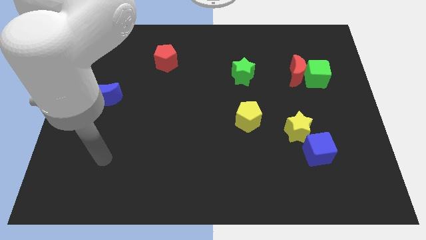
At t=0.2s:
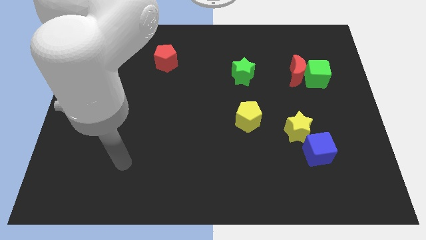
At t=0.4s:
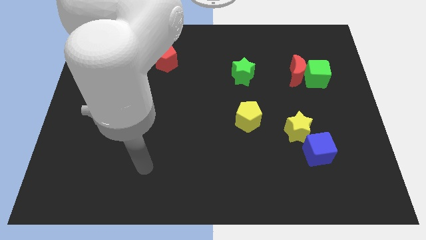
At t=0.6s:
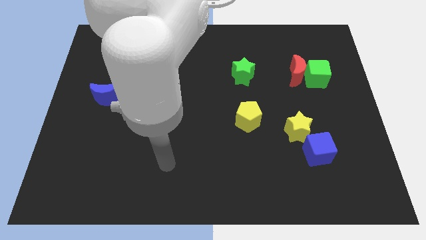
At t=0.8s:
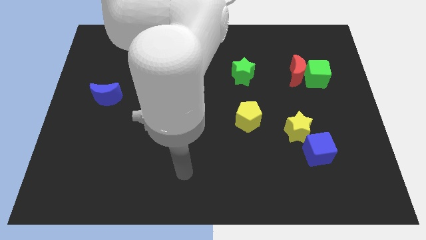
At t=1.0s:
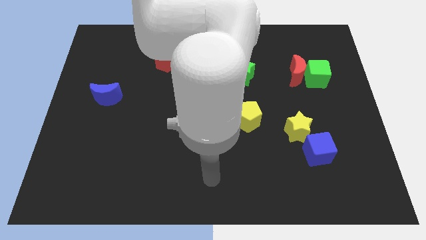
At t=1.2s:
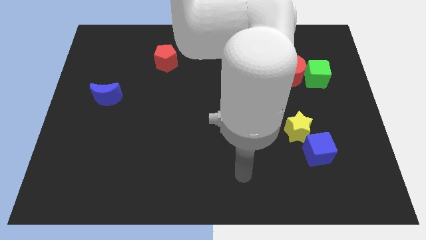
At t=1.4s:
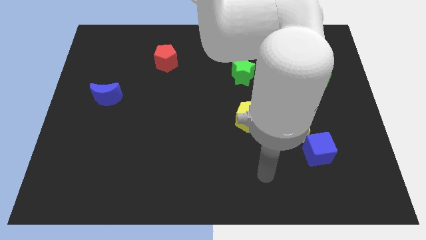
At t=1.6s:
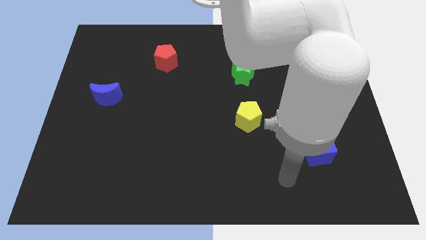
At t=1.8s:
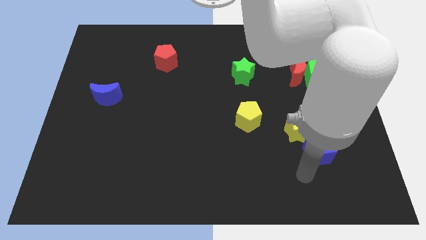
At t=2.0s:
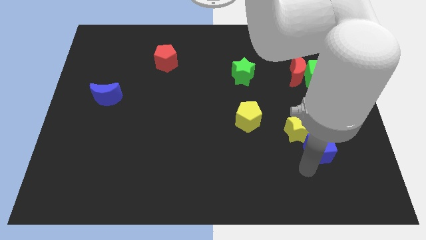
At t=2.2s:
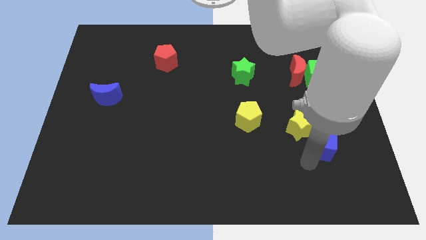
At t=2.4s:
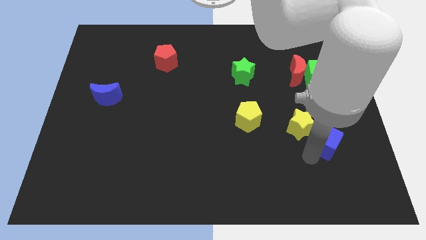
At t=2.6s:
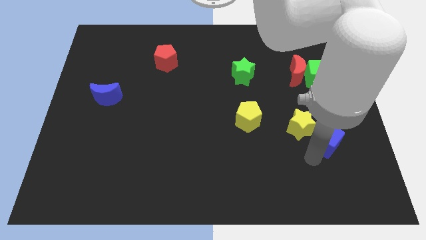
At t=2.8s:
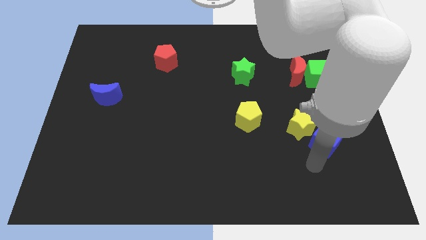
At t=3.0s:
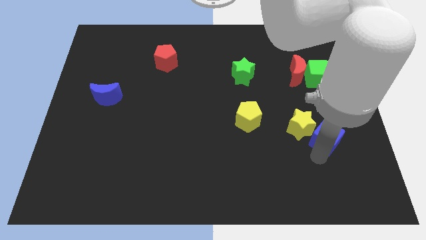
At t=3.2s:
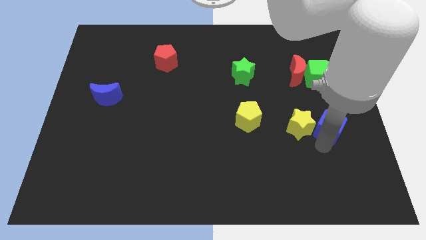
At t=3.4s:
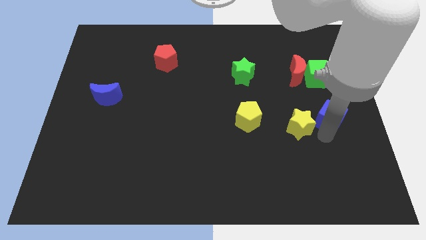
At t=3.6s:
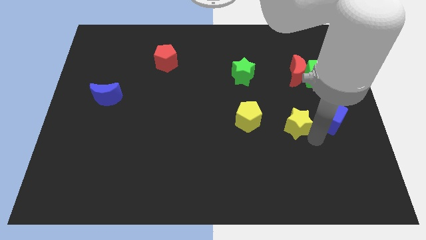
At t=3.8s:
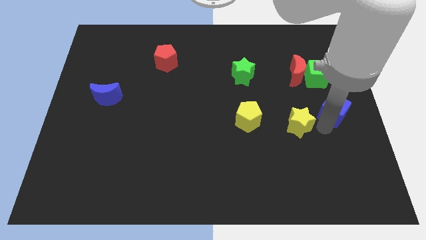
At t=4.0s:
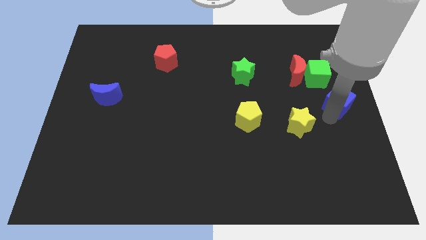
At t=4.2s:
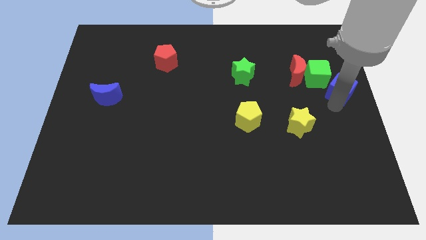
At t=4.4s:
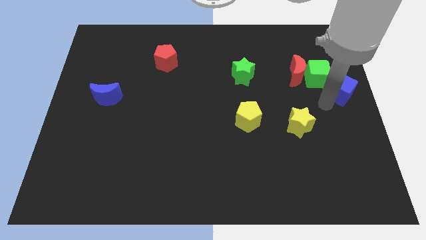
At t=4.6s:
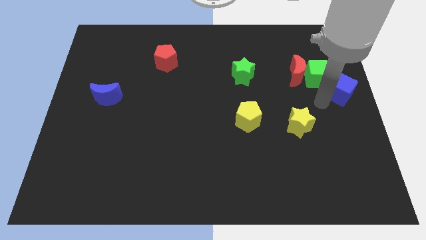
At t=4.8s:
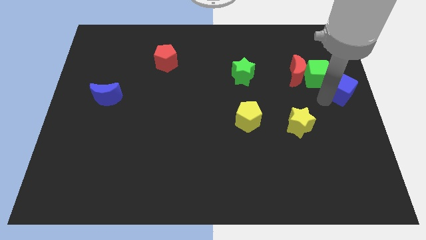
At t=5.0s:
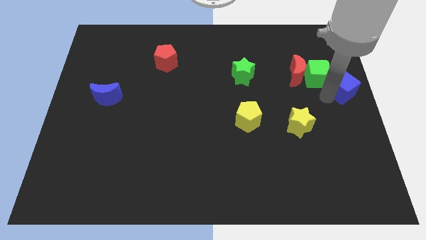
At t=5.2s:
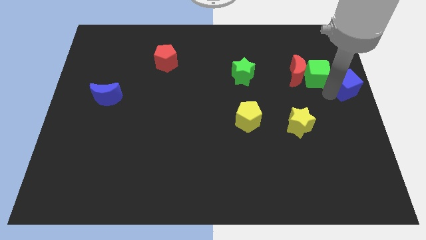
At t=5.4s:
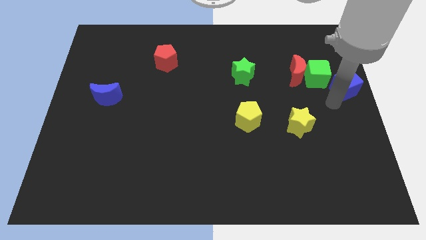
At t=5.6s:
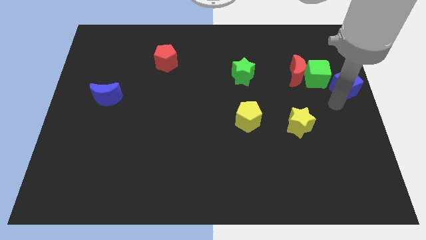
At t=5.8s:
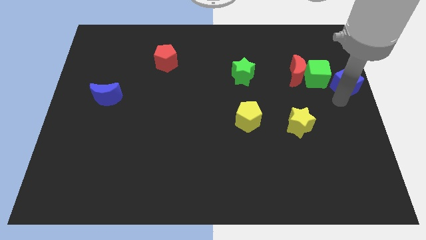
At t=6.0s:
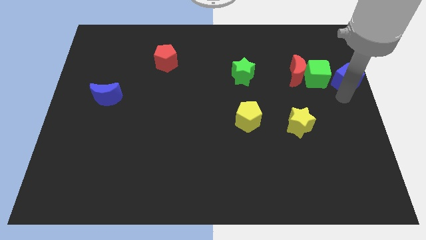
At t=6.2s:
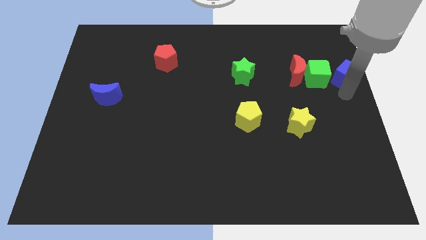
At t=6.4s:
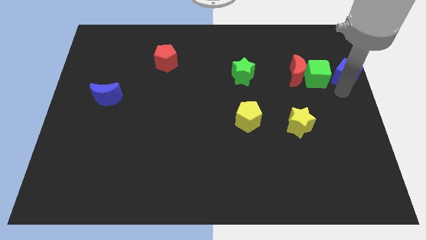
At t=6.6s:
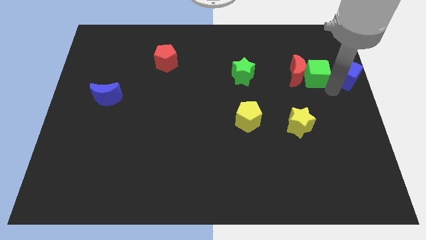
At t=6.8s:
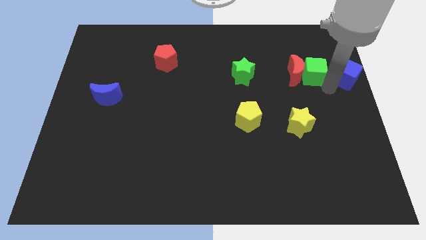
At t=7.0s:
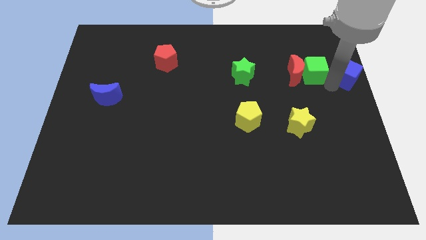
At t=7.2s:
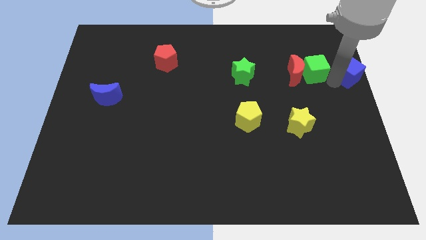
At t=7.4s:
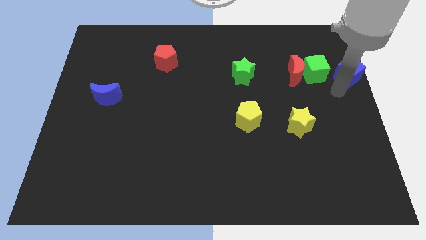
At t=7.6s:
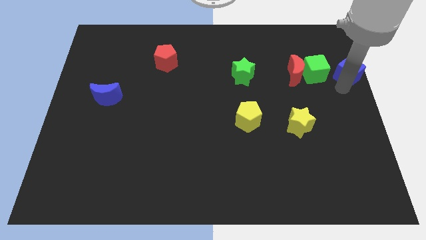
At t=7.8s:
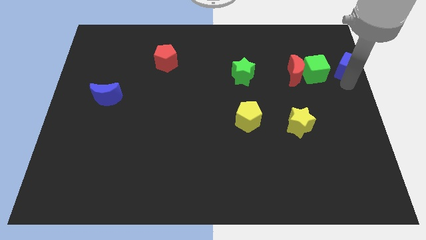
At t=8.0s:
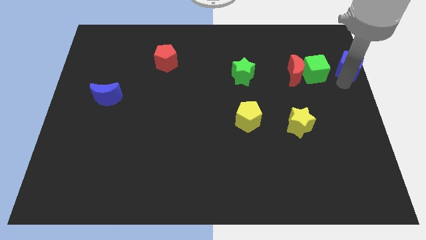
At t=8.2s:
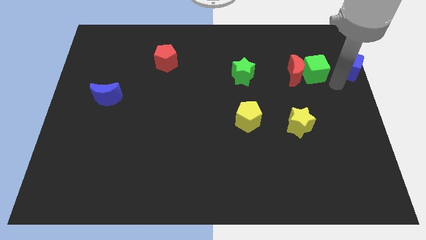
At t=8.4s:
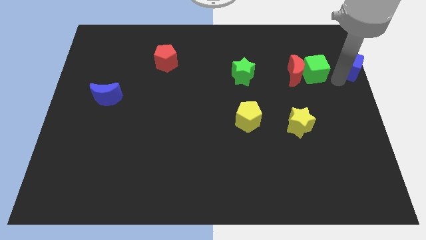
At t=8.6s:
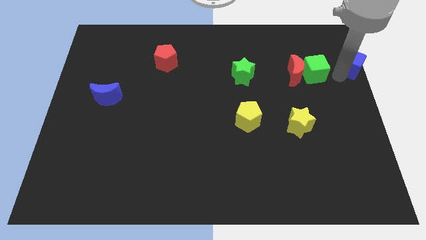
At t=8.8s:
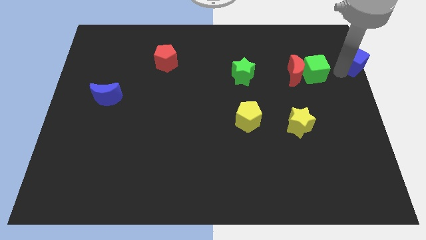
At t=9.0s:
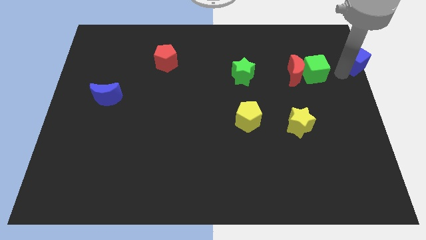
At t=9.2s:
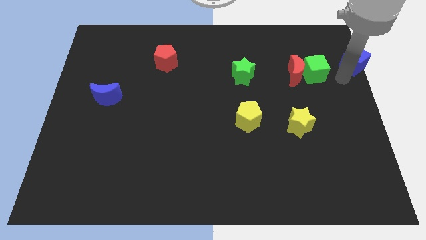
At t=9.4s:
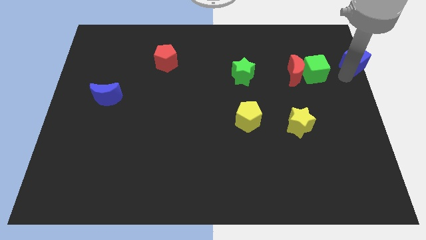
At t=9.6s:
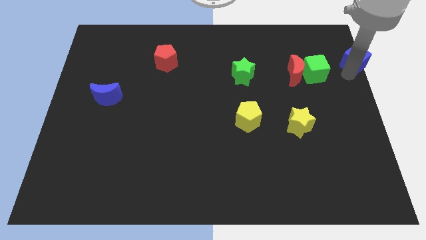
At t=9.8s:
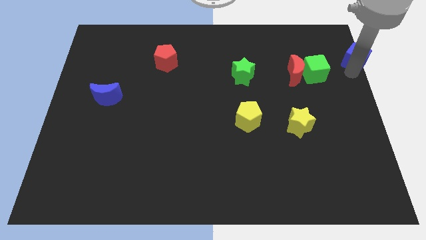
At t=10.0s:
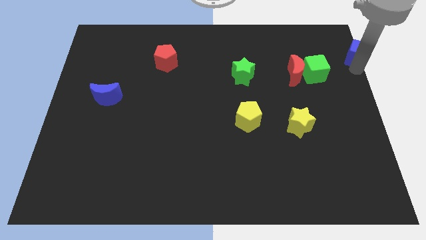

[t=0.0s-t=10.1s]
push the blue cube to the top right

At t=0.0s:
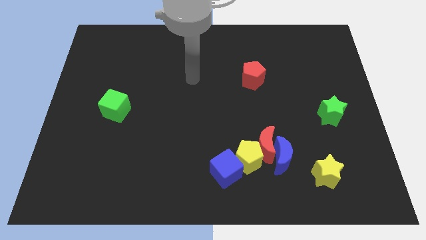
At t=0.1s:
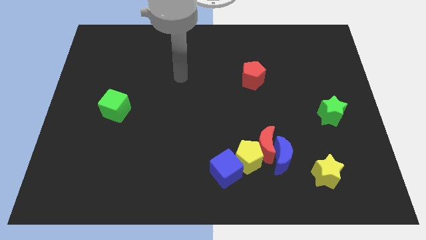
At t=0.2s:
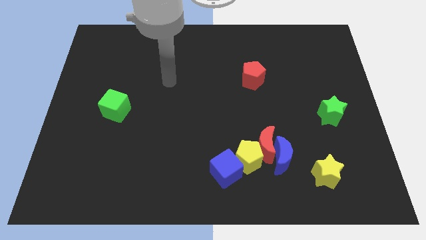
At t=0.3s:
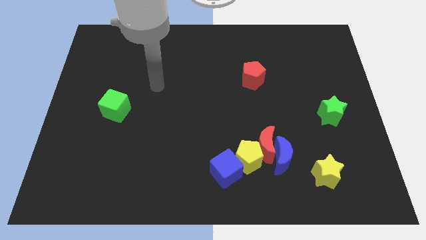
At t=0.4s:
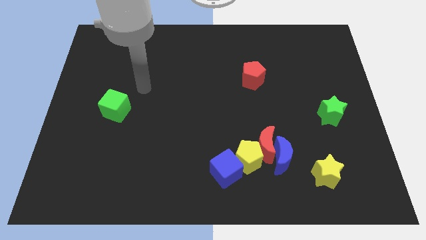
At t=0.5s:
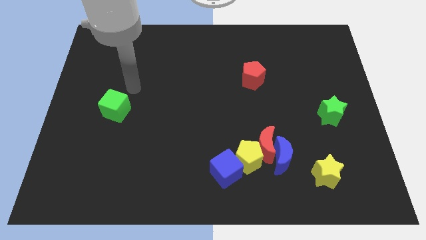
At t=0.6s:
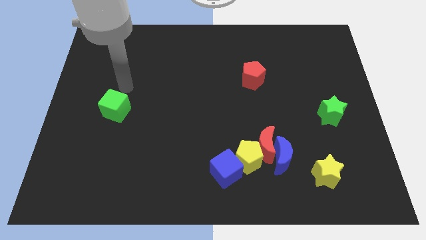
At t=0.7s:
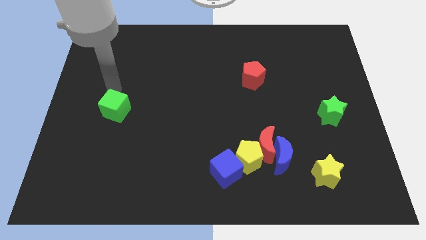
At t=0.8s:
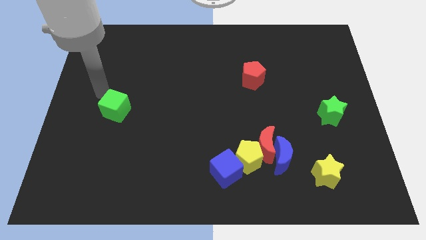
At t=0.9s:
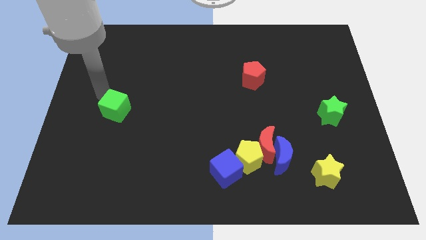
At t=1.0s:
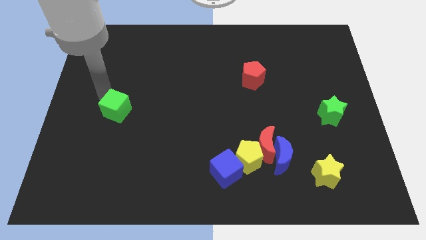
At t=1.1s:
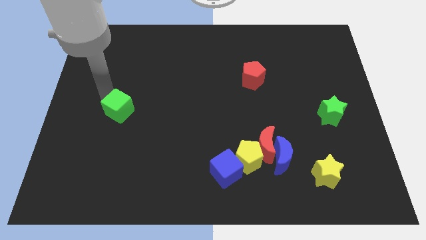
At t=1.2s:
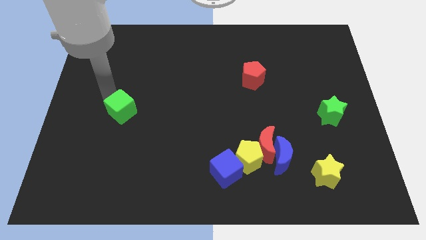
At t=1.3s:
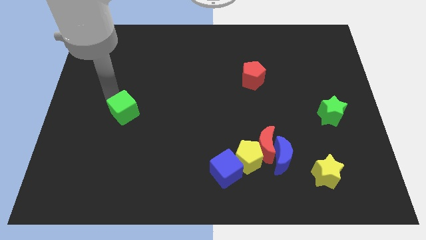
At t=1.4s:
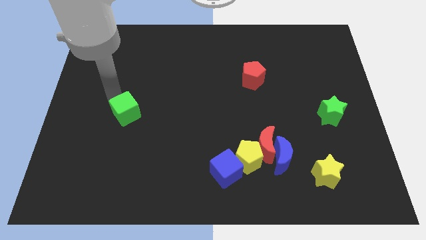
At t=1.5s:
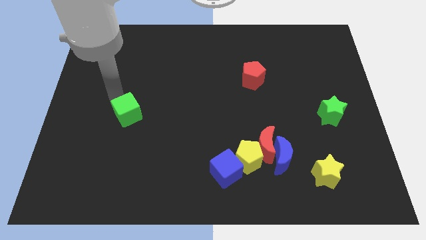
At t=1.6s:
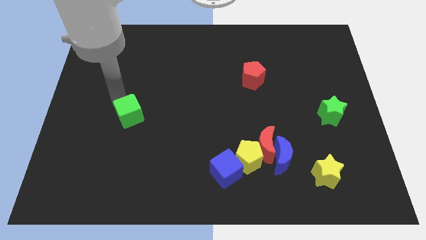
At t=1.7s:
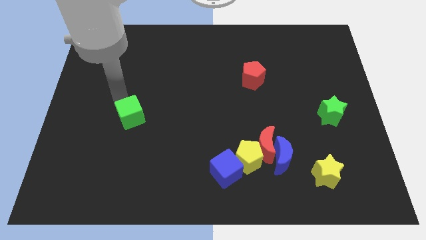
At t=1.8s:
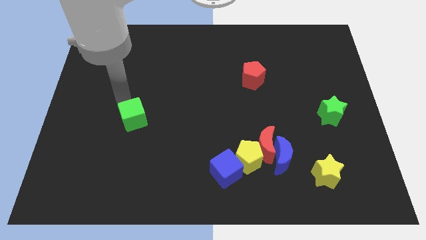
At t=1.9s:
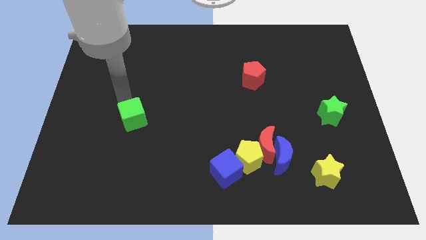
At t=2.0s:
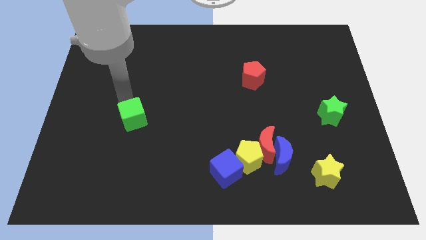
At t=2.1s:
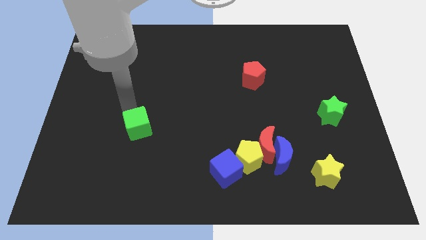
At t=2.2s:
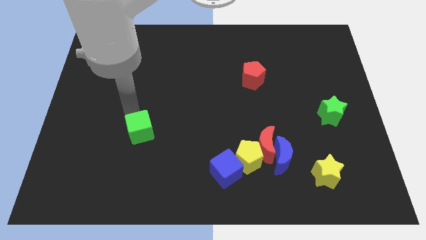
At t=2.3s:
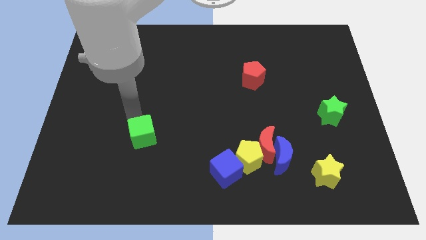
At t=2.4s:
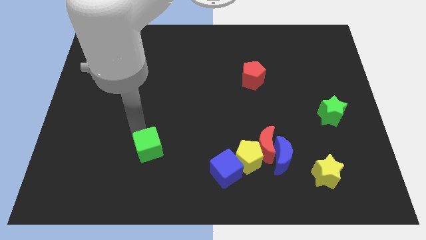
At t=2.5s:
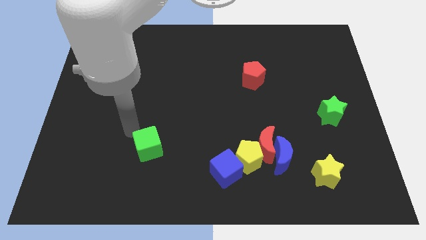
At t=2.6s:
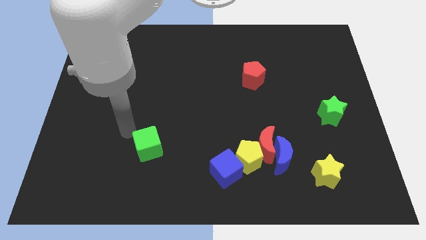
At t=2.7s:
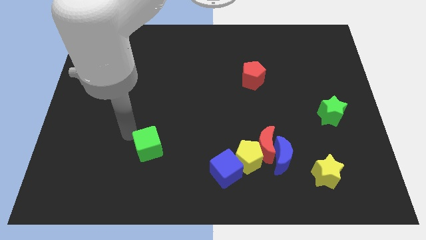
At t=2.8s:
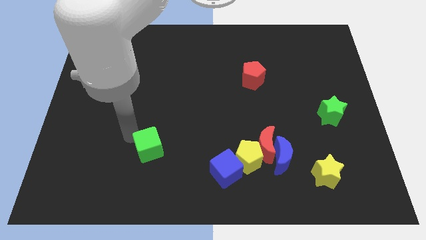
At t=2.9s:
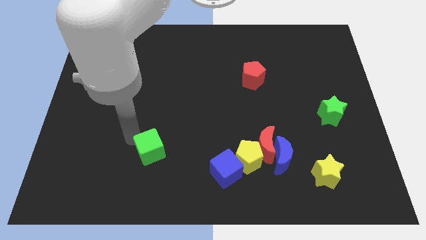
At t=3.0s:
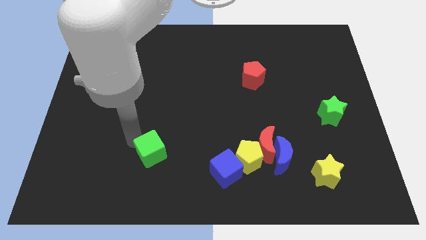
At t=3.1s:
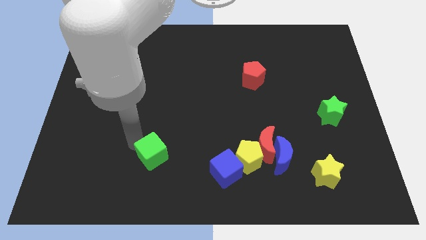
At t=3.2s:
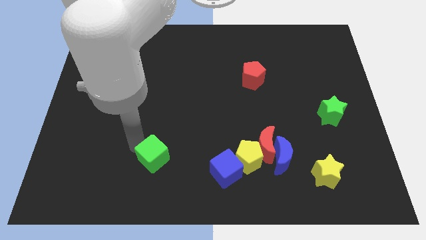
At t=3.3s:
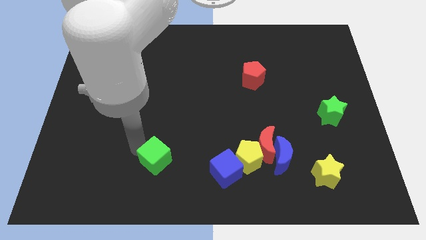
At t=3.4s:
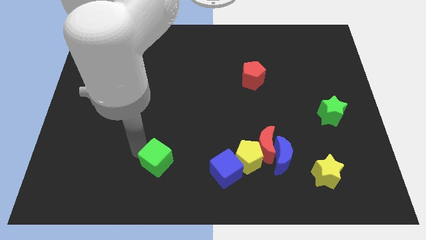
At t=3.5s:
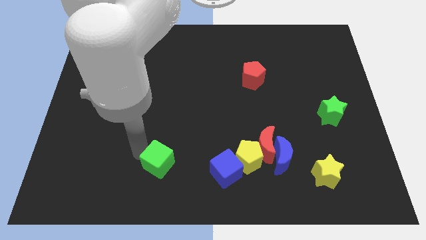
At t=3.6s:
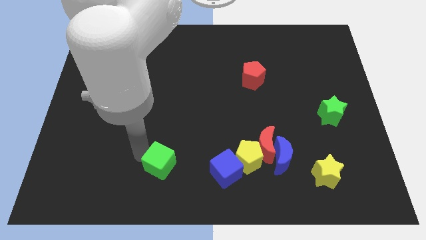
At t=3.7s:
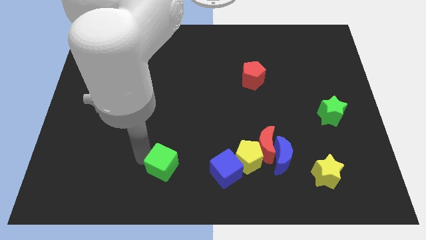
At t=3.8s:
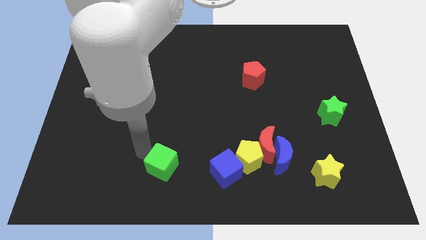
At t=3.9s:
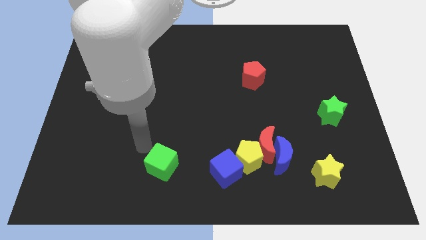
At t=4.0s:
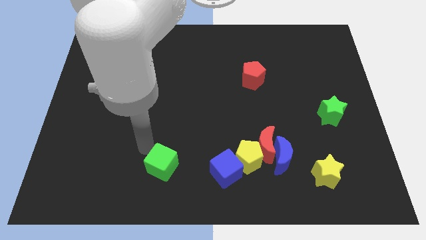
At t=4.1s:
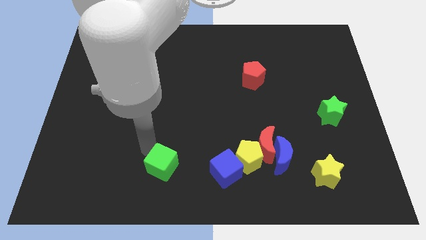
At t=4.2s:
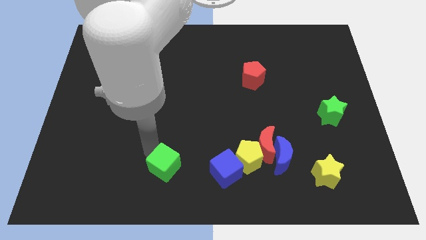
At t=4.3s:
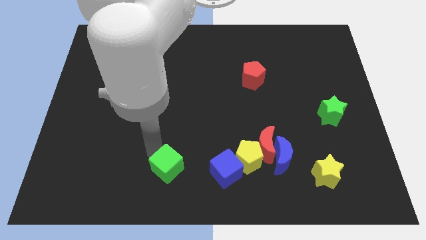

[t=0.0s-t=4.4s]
push the green cube to the bottom side
